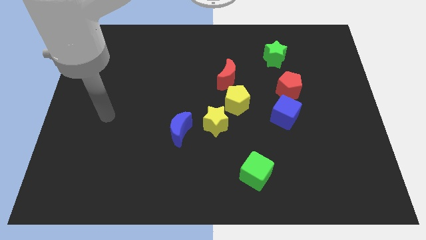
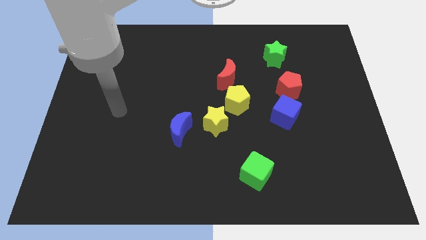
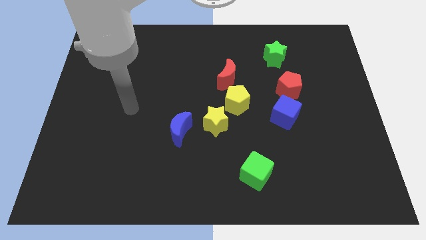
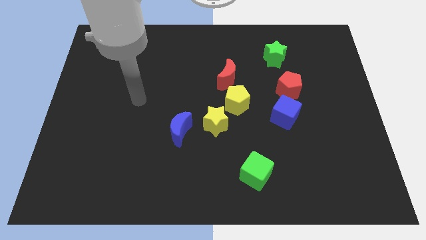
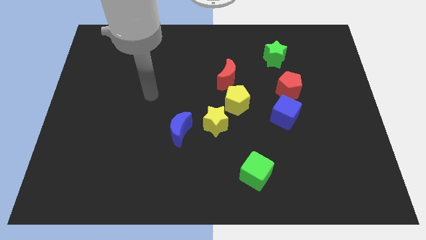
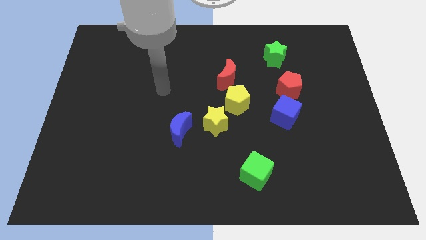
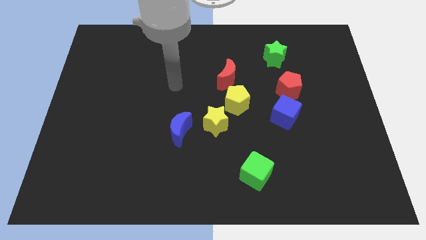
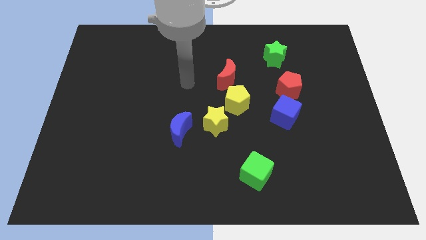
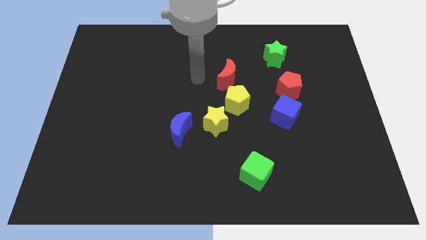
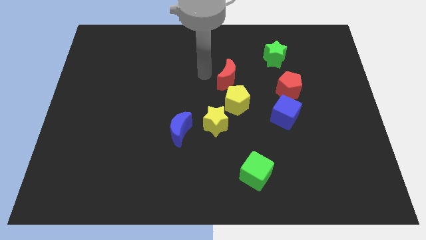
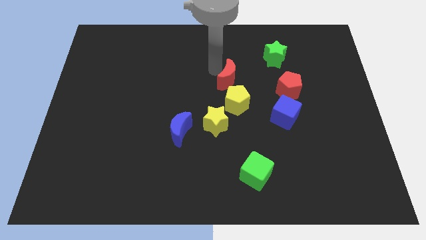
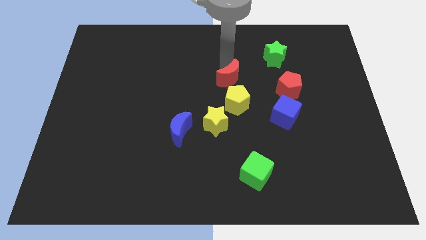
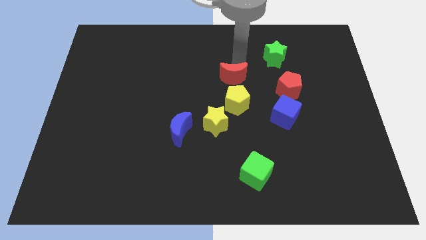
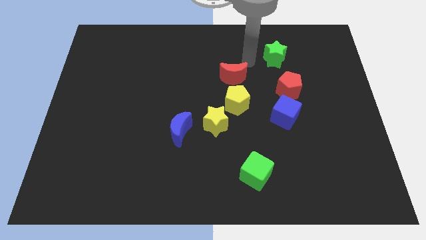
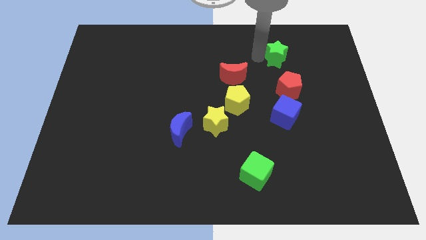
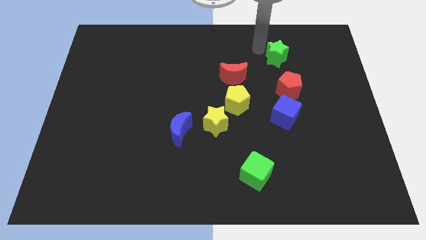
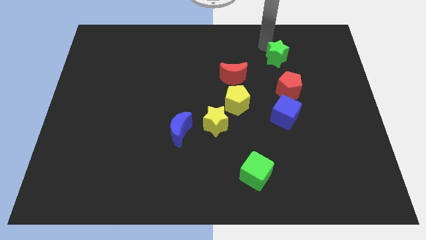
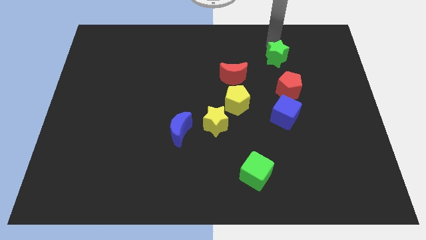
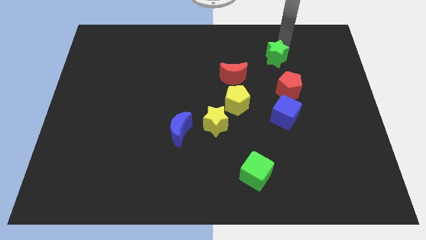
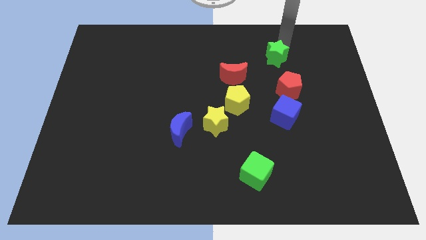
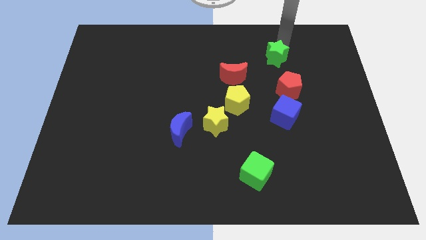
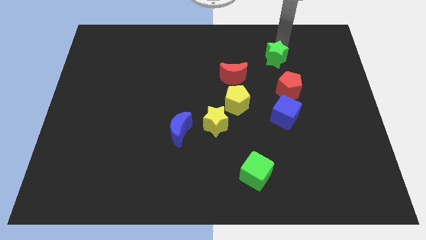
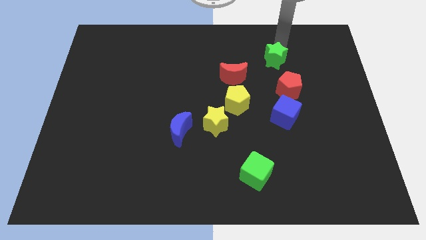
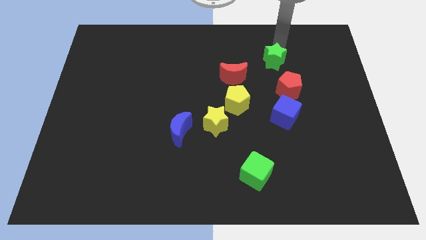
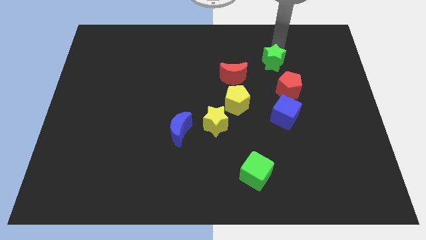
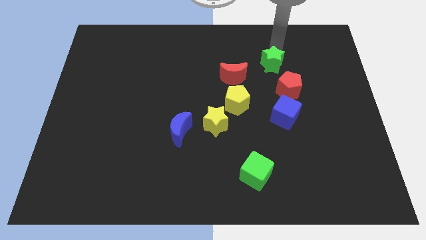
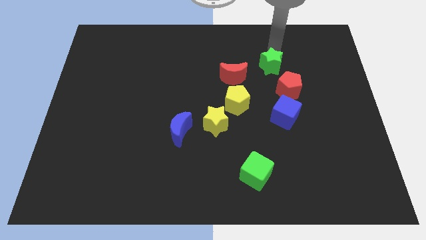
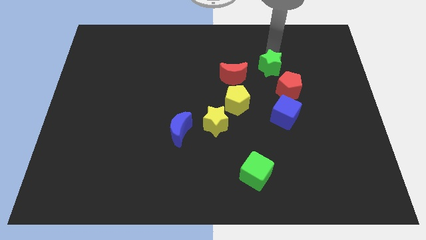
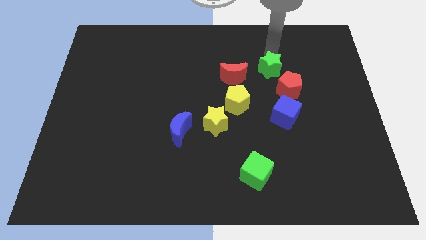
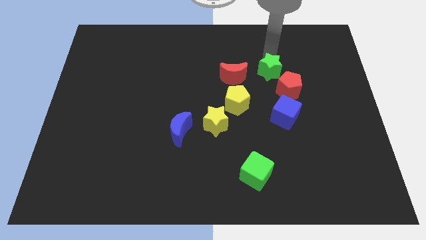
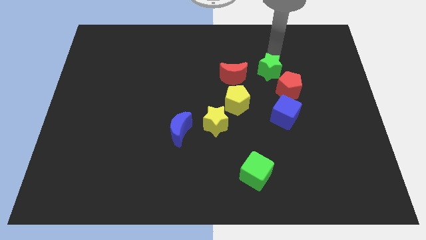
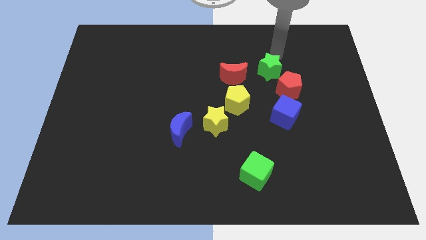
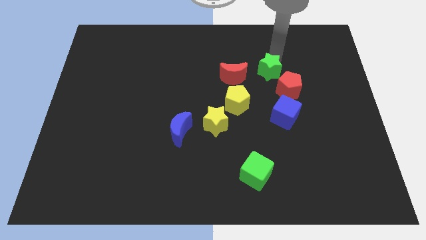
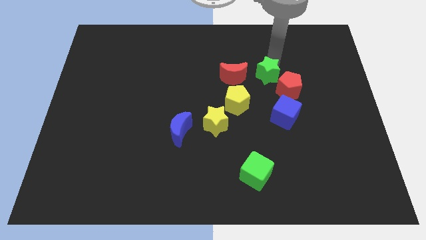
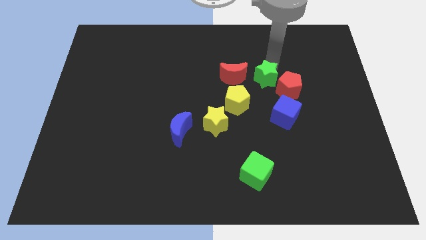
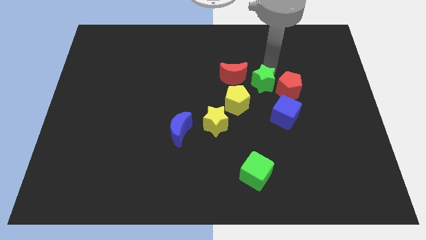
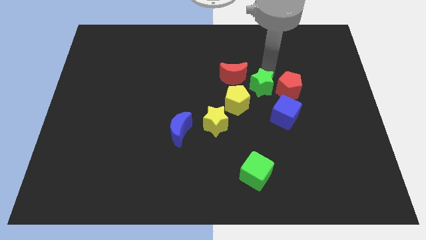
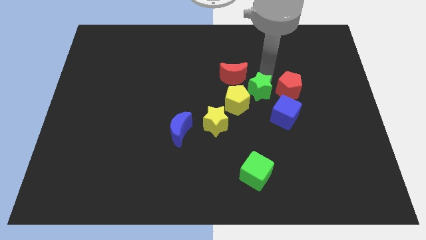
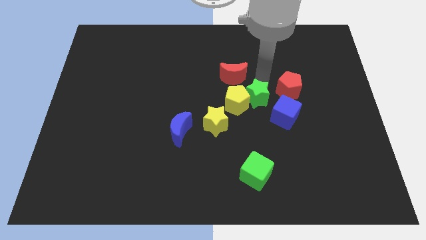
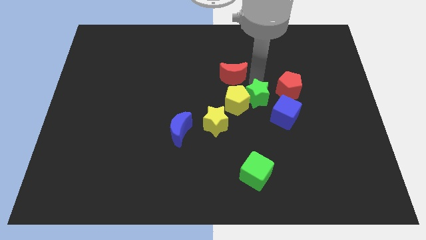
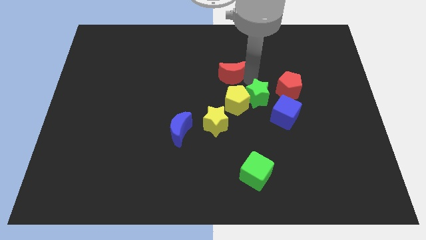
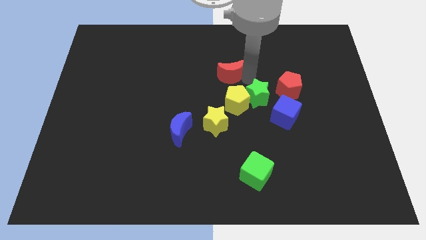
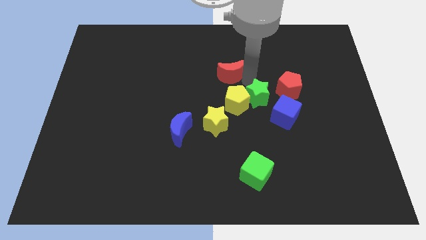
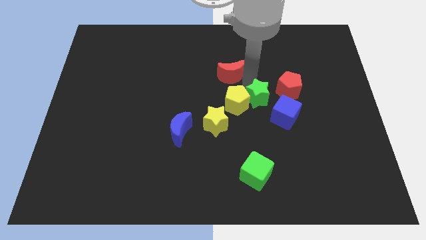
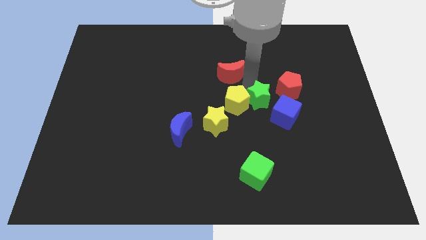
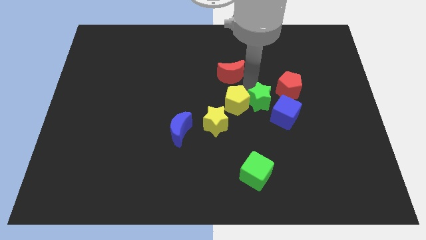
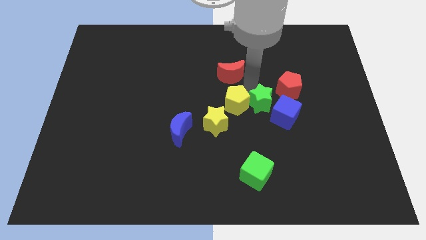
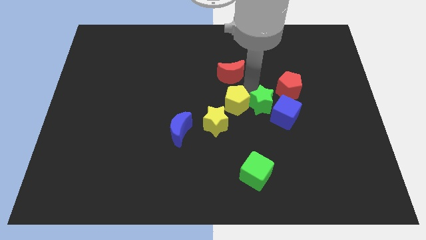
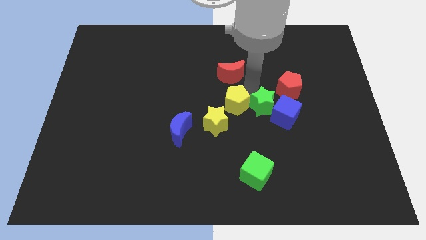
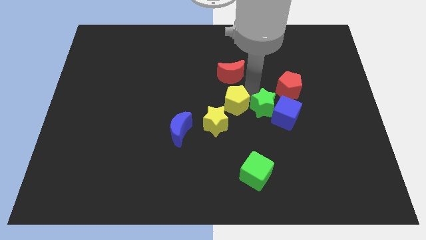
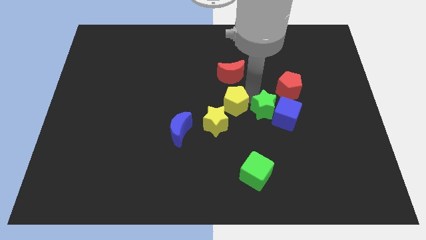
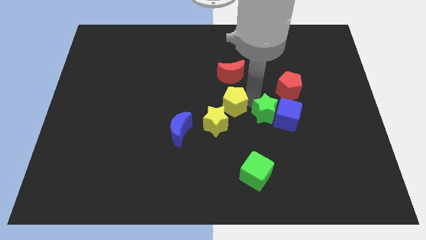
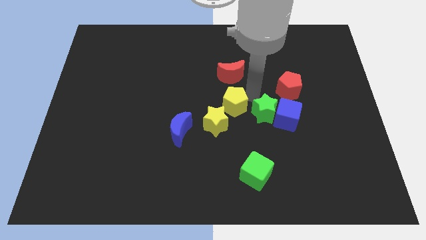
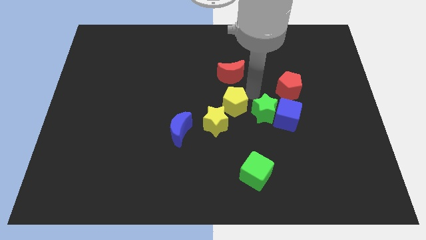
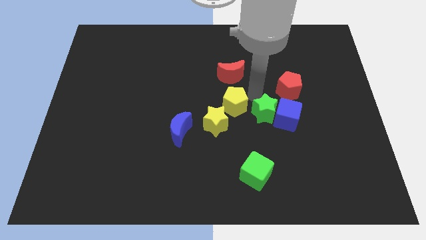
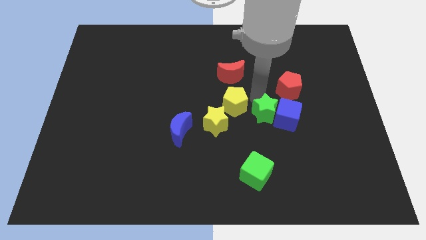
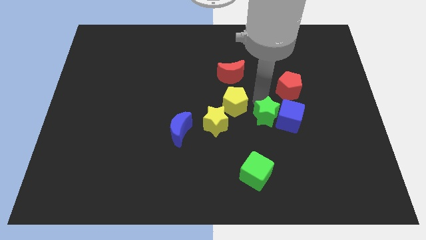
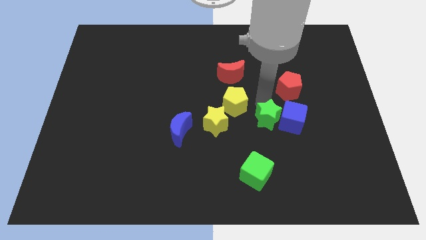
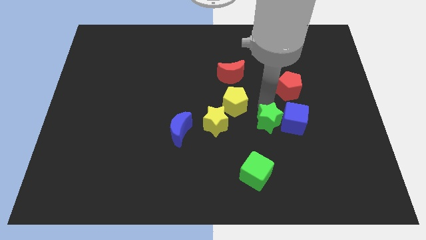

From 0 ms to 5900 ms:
move the green star downwards

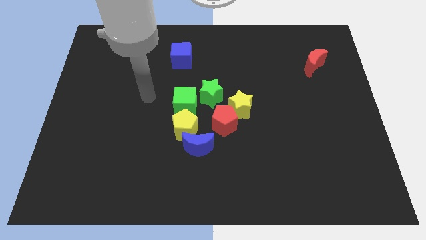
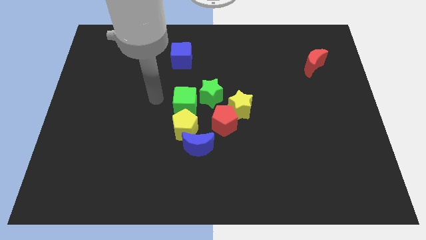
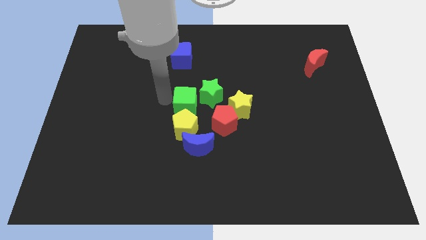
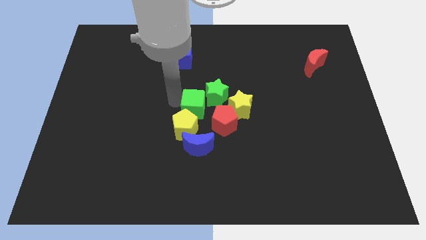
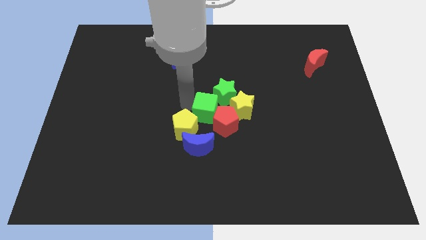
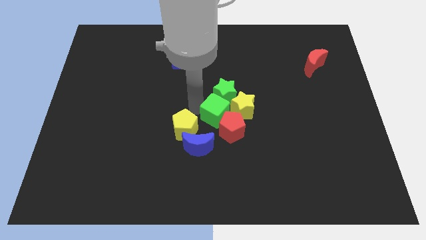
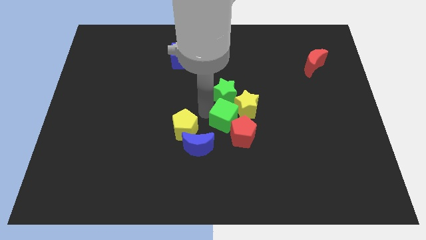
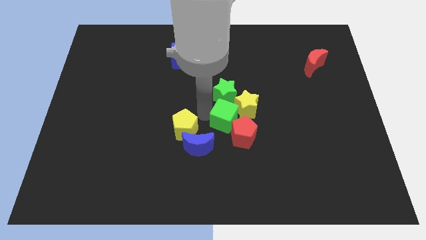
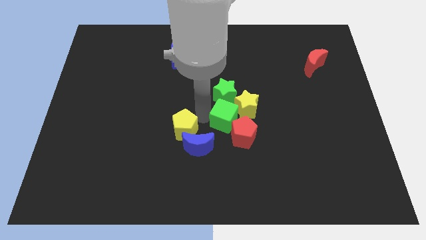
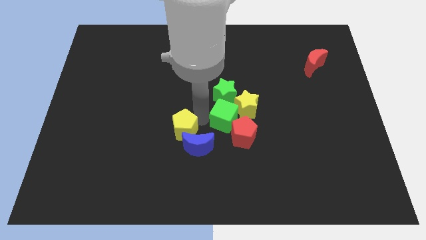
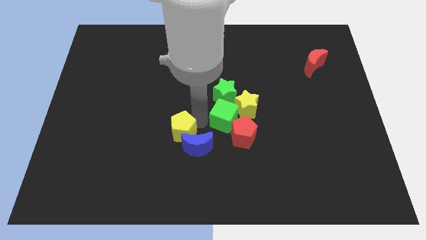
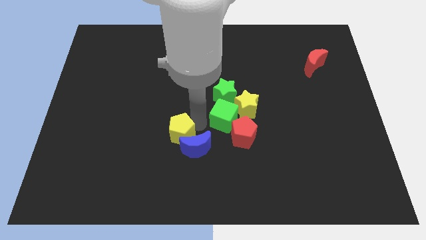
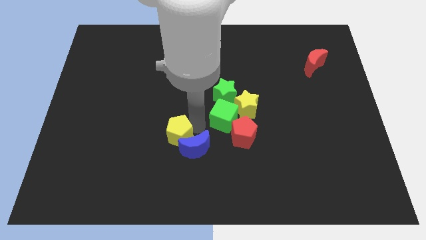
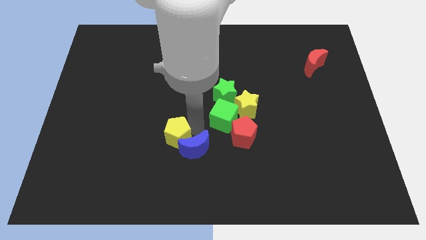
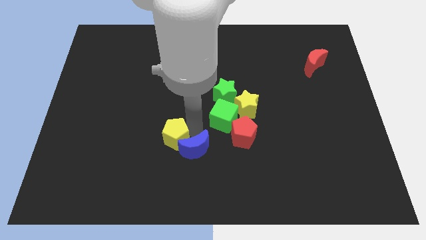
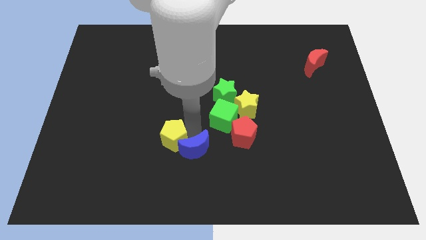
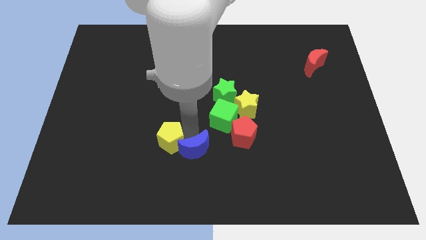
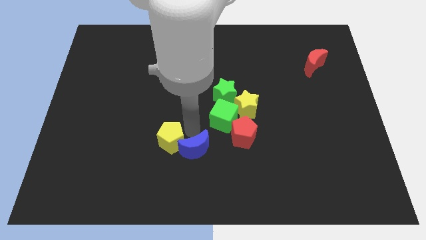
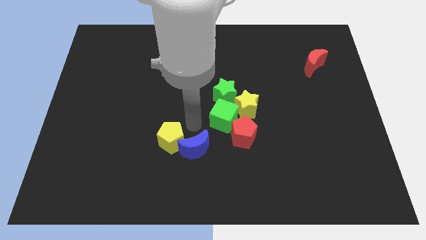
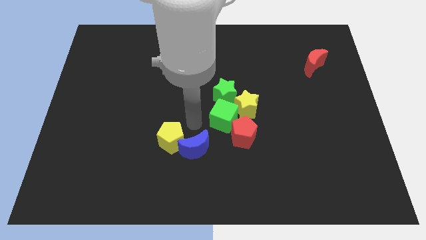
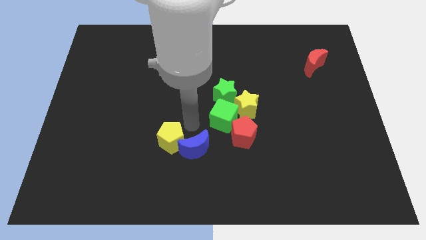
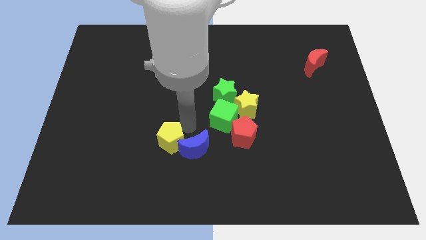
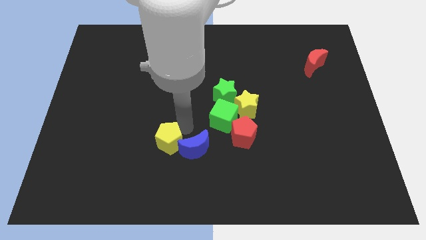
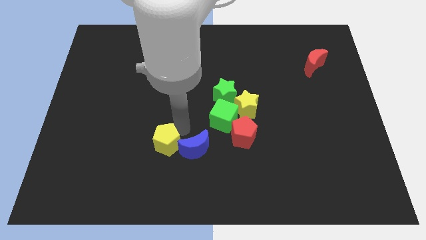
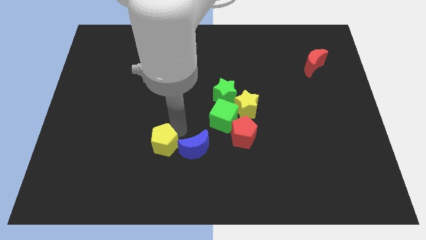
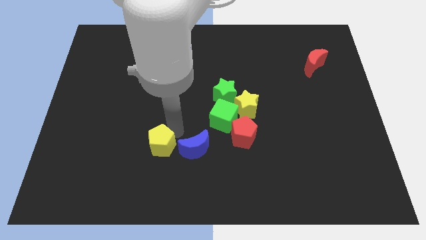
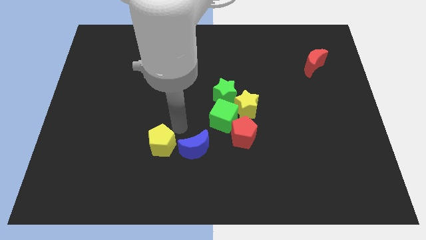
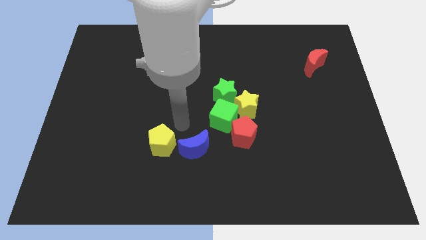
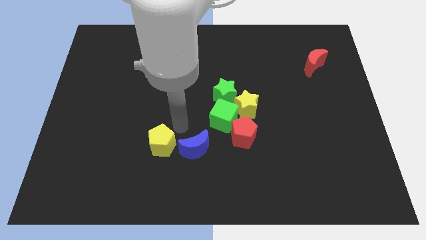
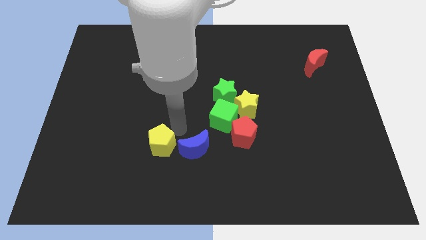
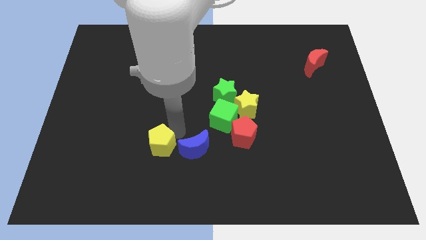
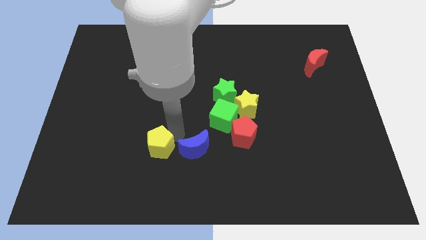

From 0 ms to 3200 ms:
slightly push the yellow pentagon down and left
